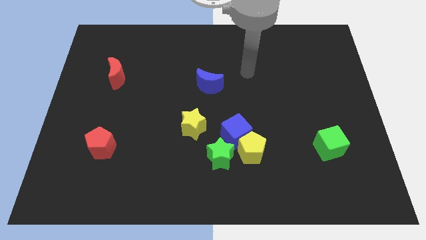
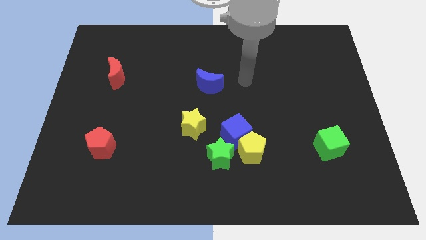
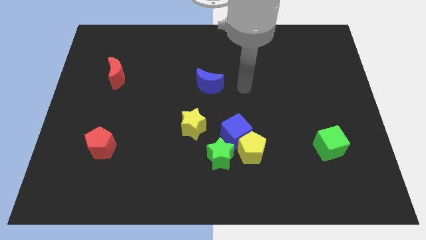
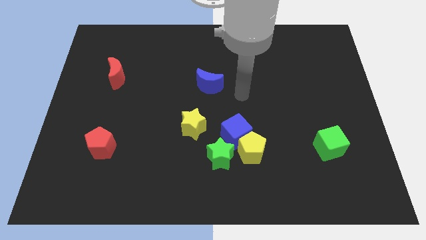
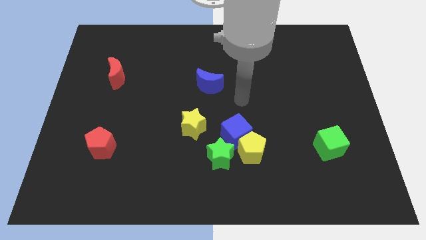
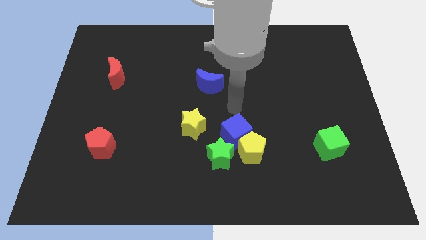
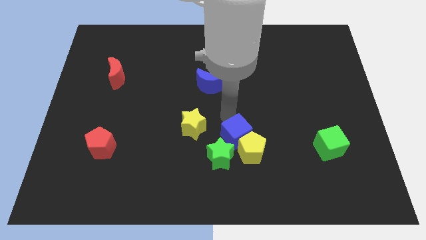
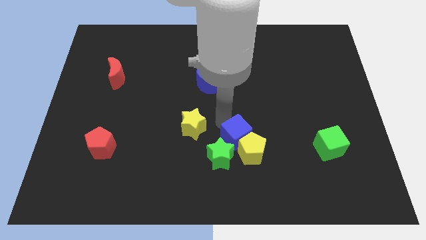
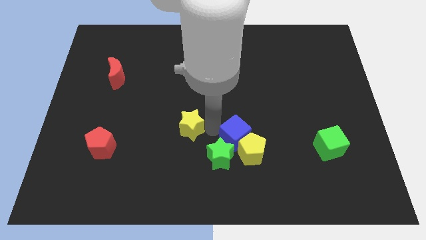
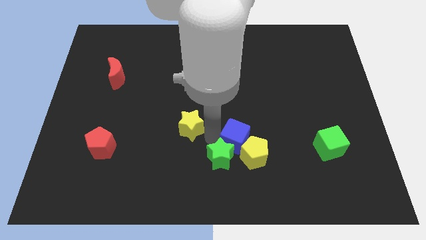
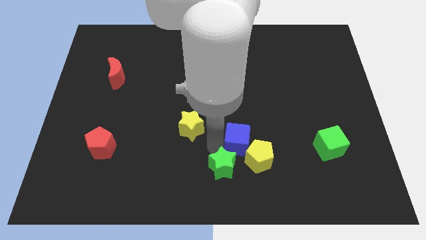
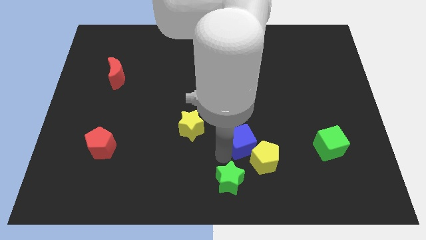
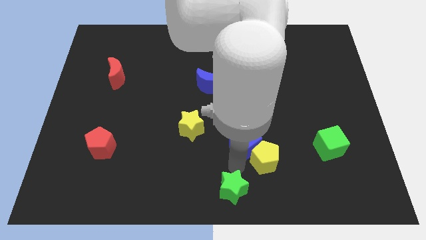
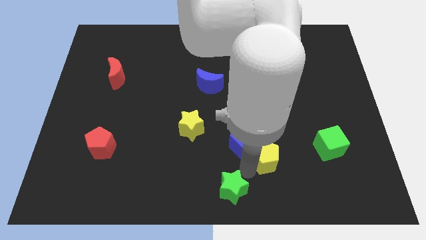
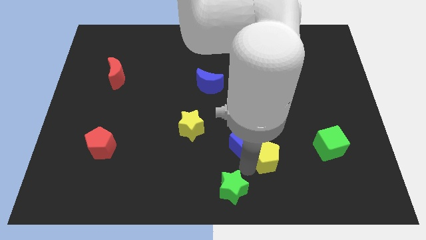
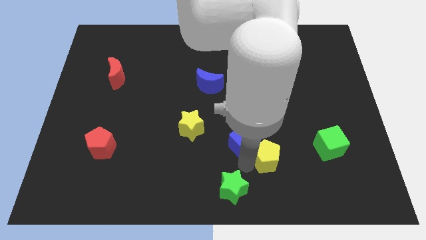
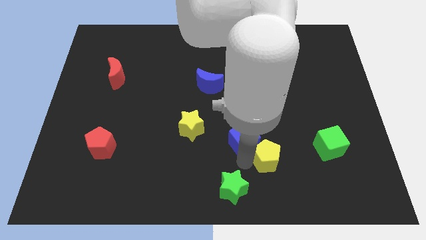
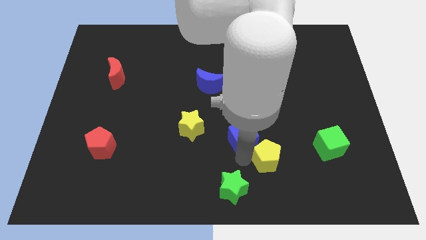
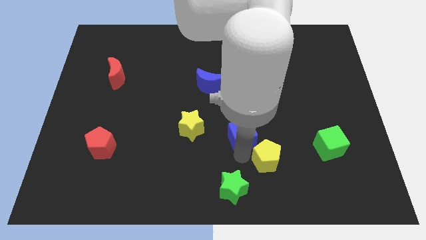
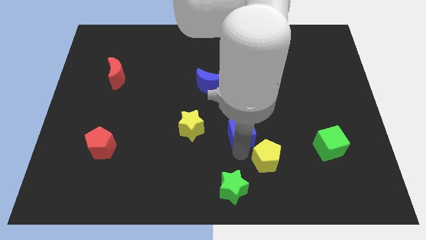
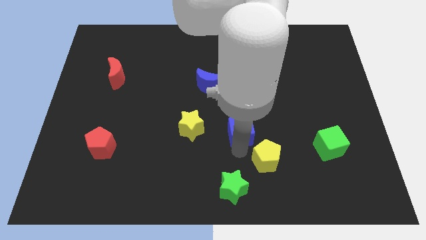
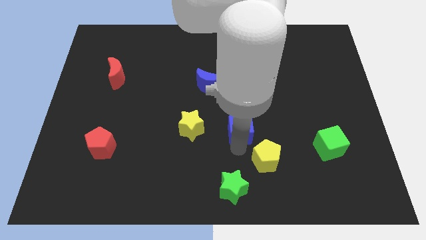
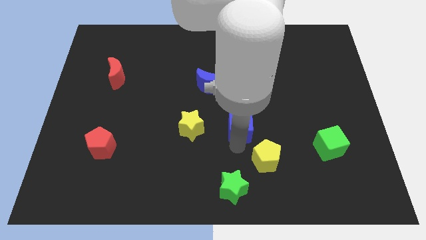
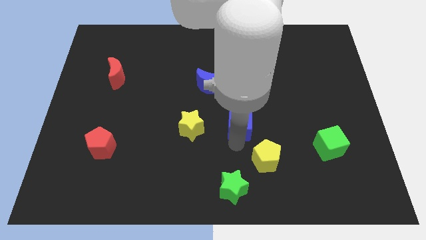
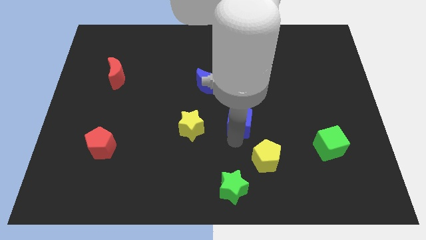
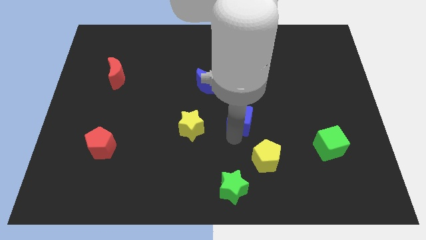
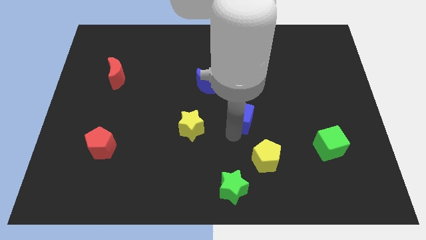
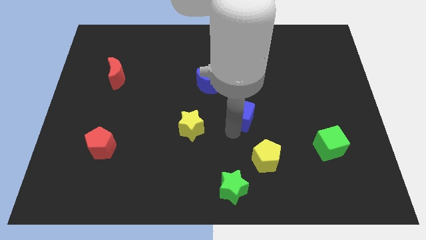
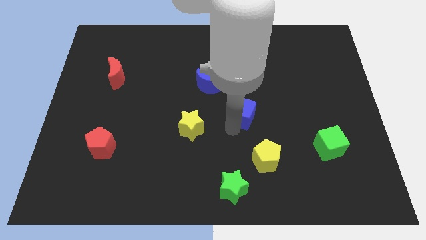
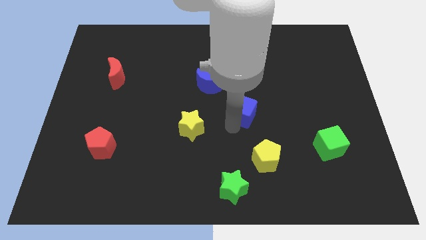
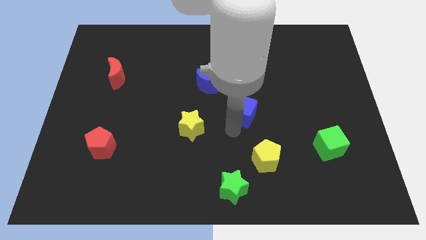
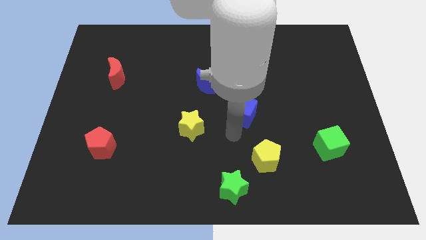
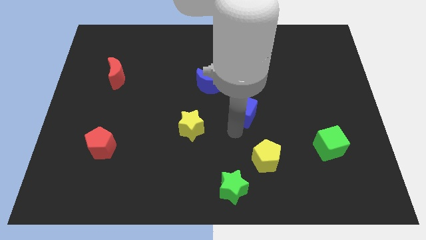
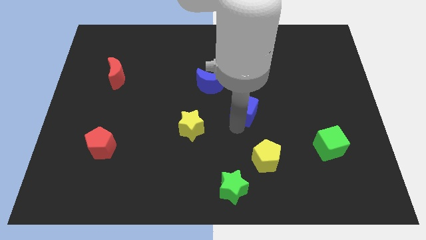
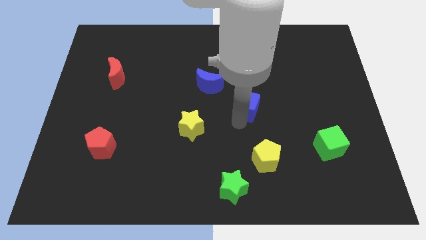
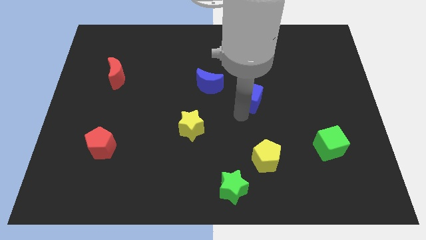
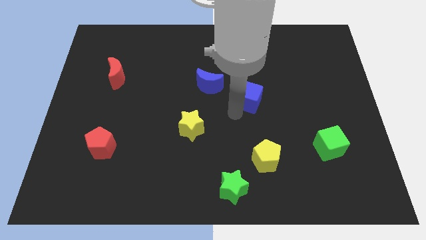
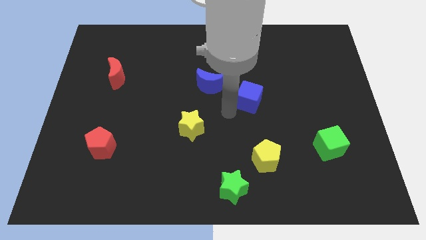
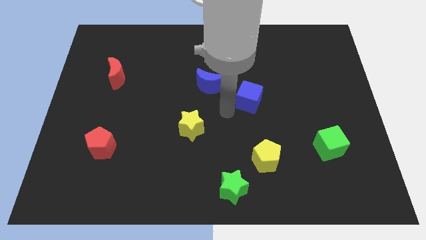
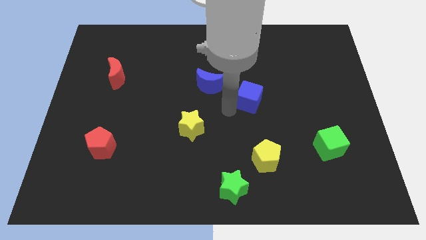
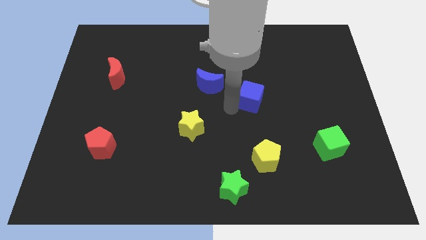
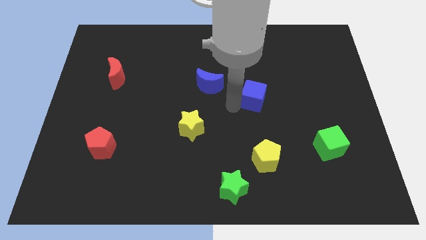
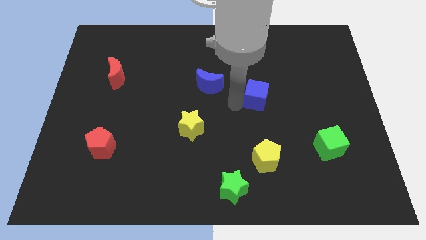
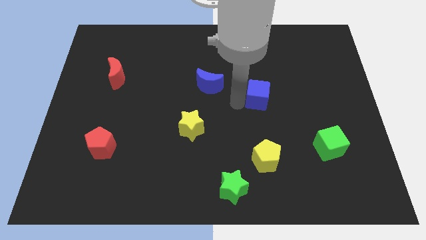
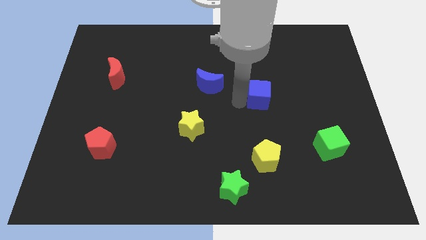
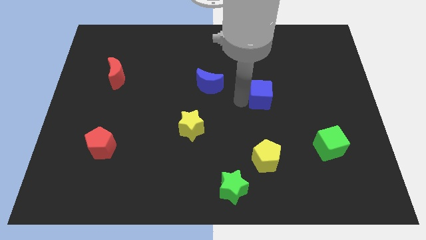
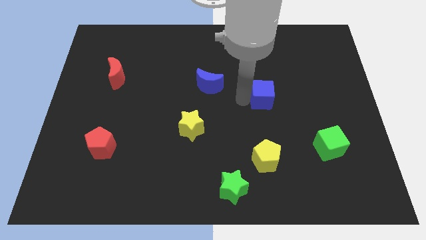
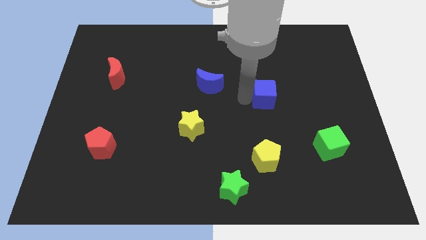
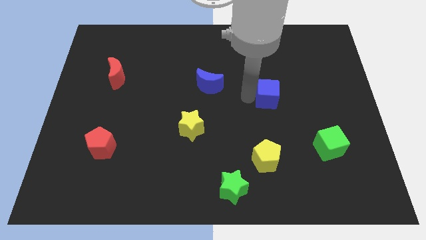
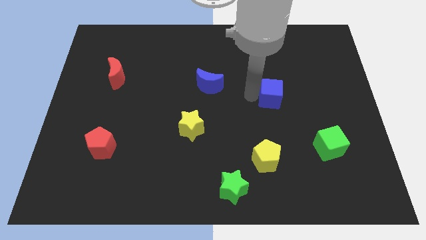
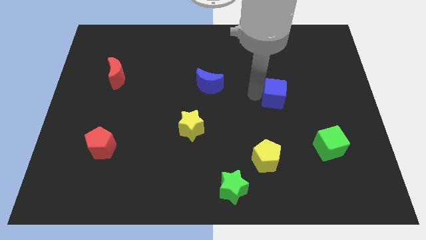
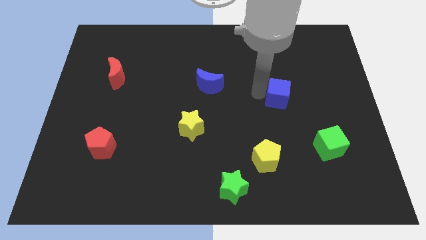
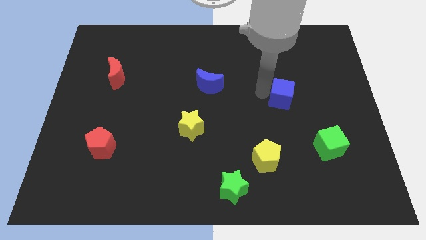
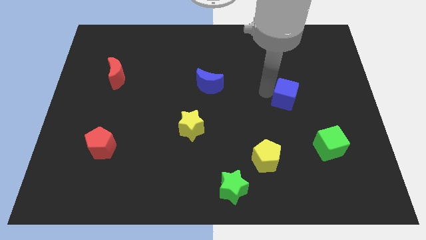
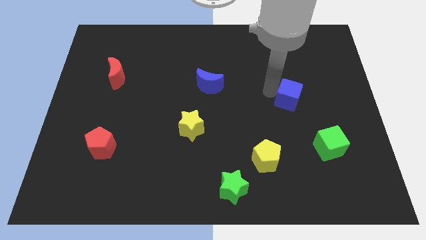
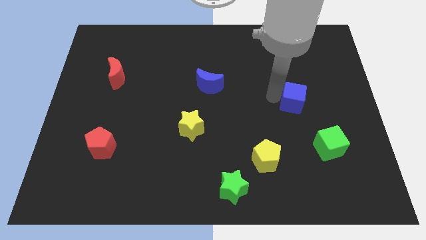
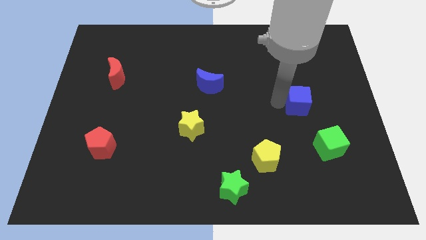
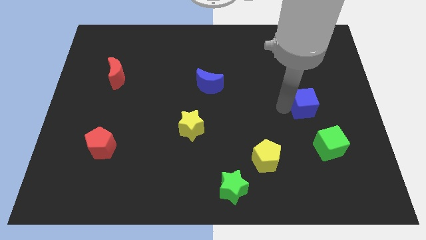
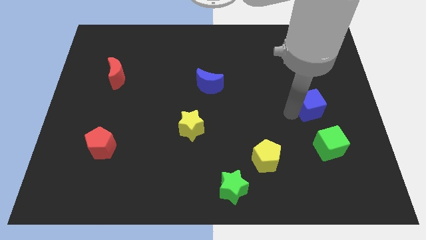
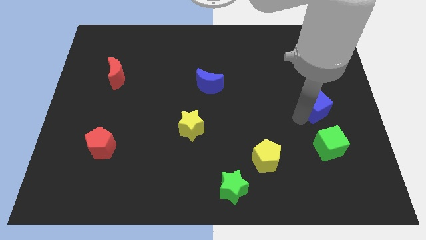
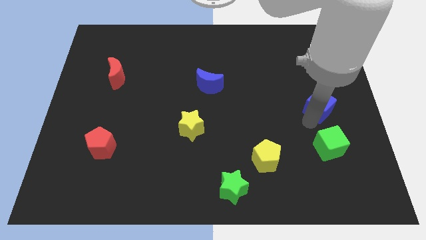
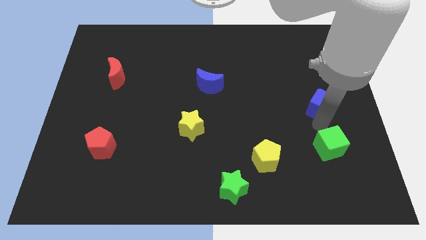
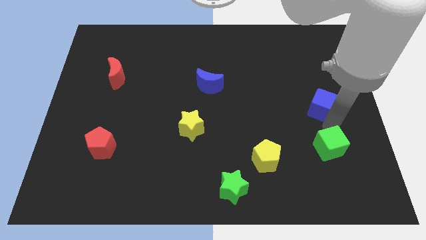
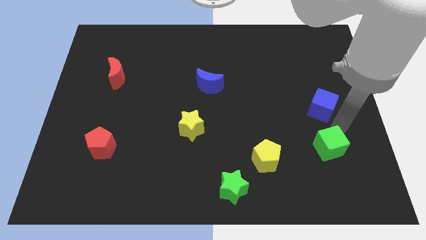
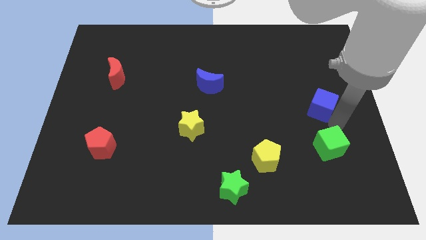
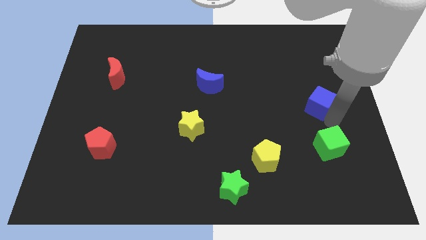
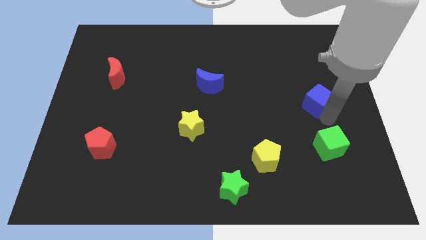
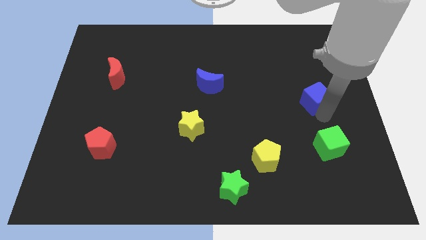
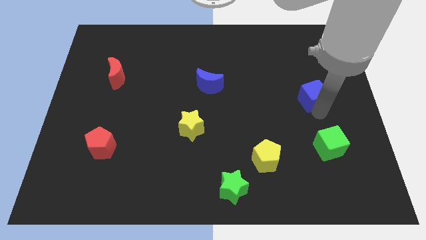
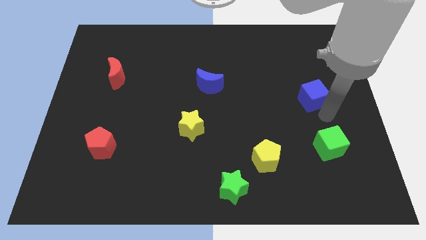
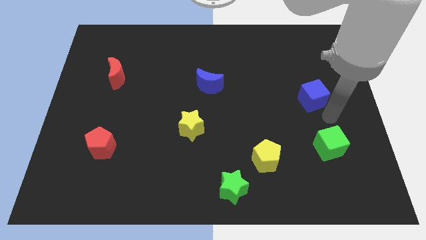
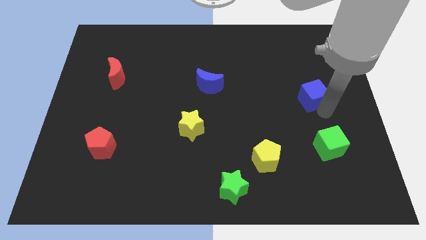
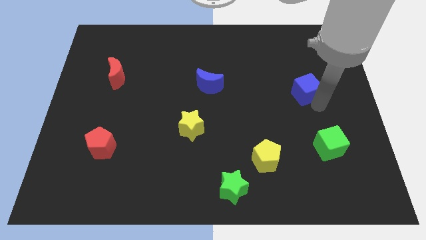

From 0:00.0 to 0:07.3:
push the blue cube diagonally upwards and to the right

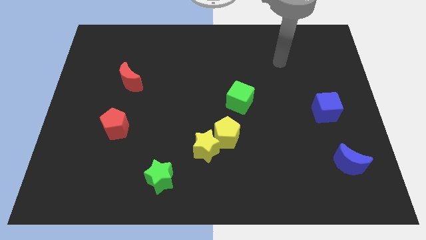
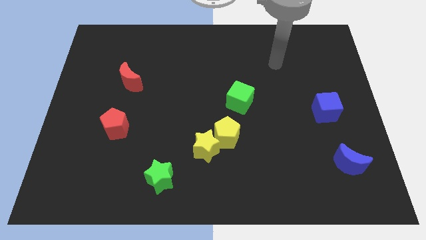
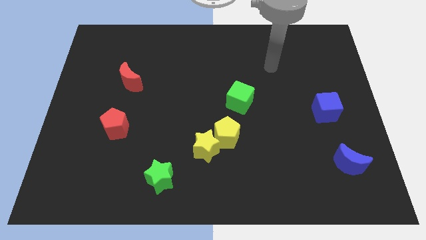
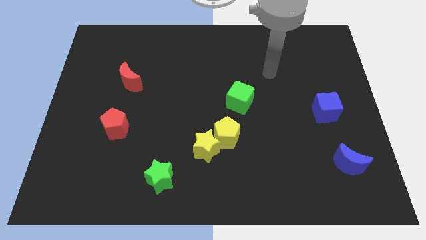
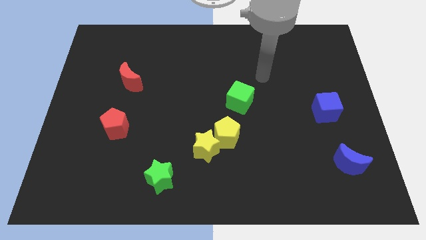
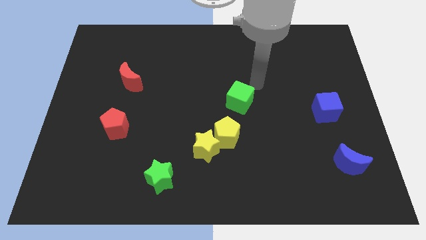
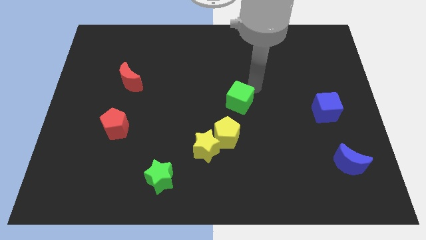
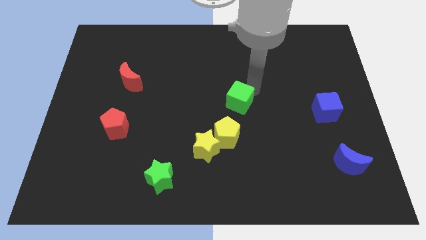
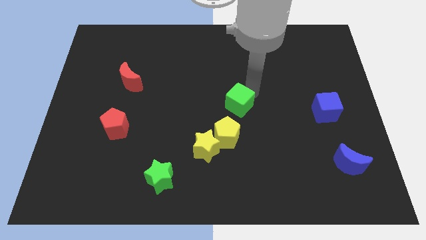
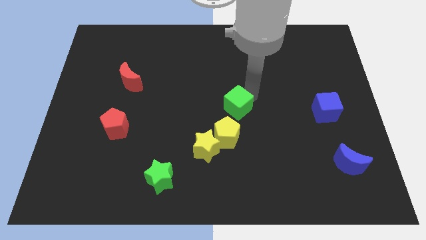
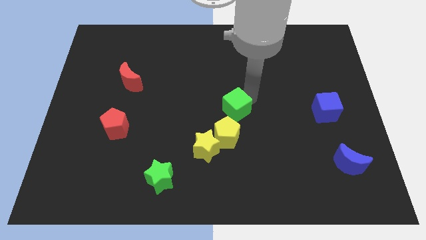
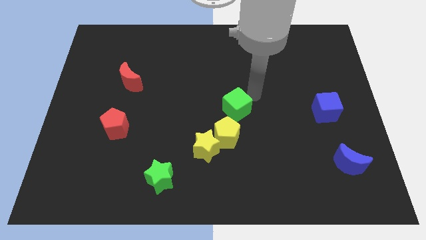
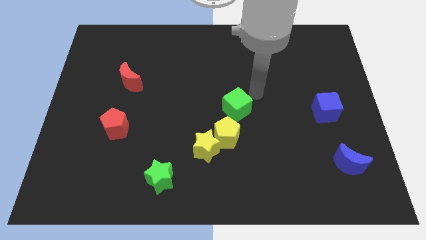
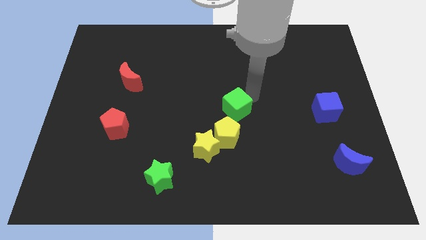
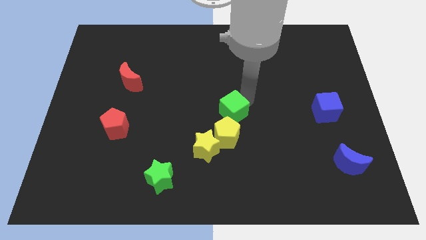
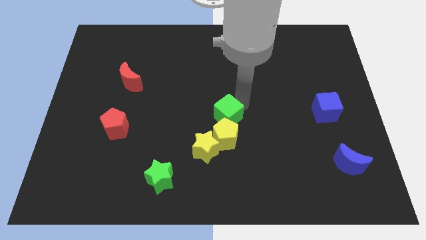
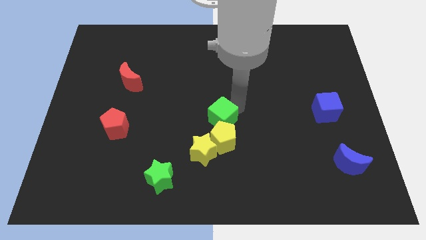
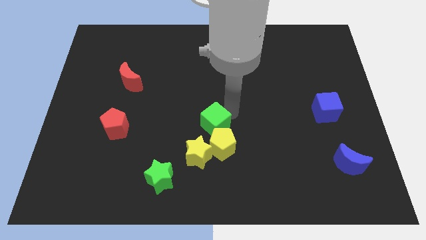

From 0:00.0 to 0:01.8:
move the green cube diagonally downwards and left somewhat
